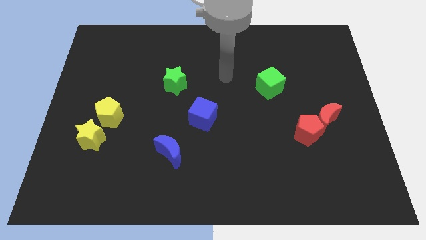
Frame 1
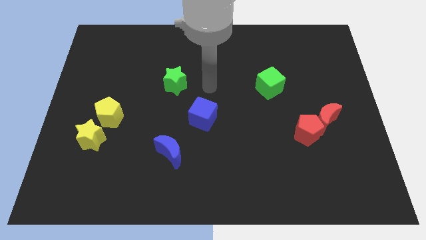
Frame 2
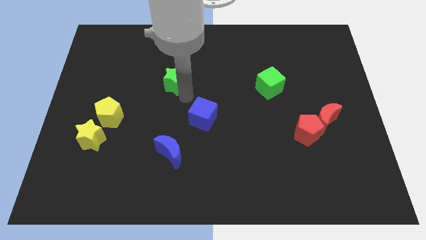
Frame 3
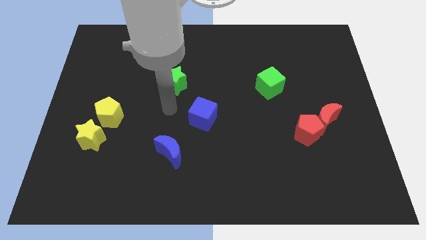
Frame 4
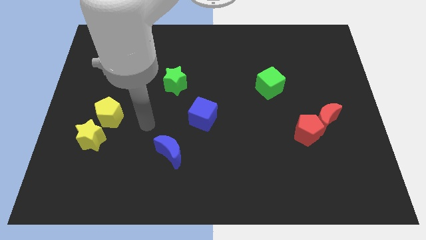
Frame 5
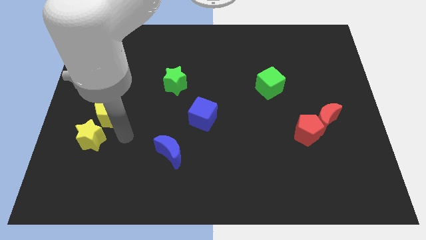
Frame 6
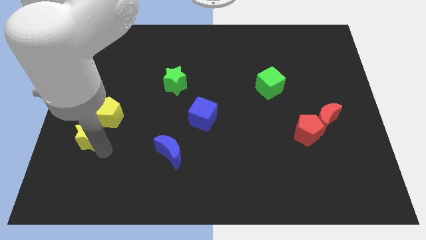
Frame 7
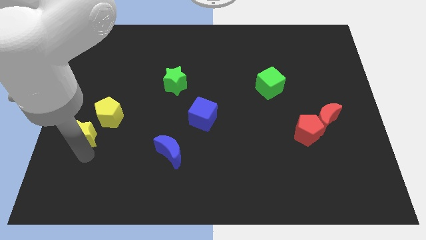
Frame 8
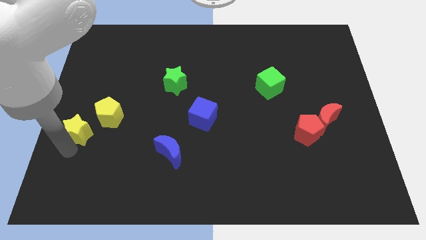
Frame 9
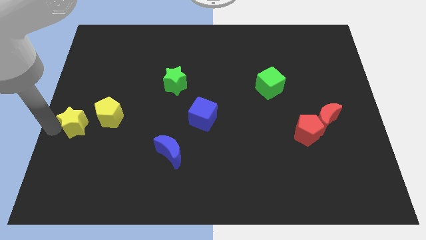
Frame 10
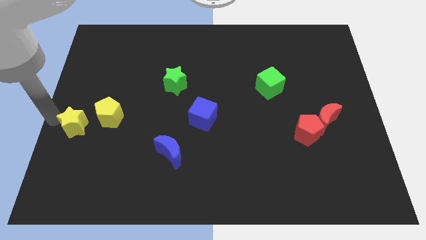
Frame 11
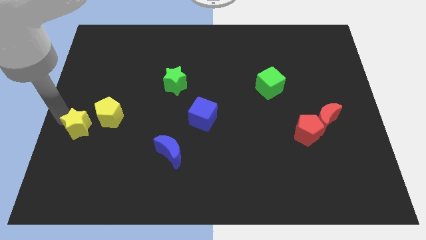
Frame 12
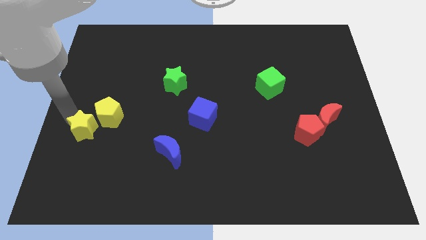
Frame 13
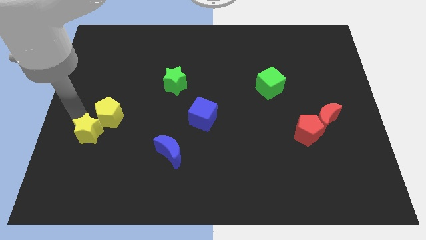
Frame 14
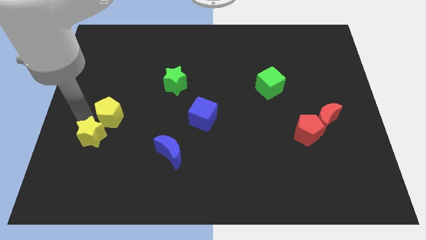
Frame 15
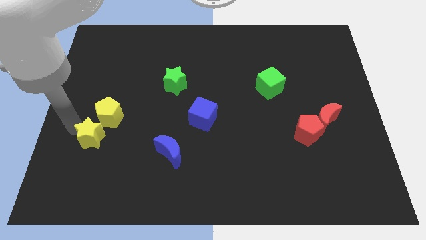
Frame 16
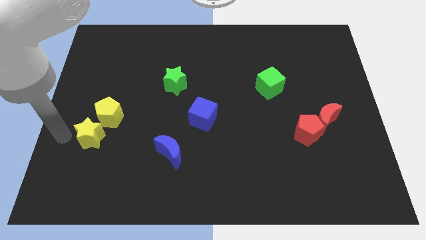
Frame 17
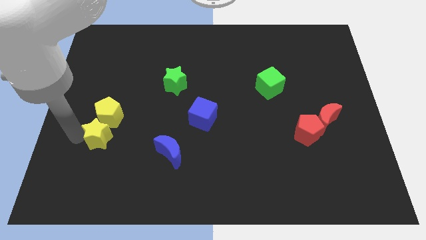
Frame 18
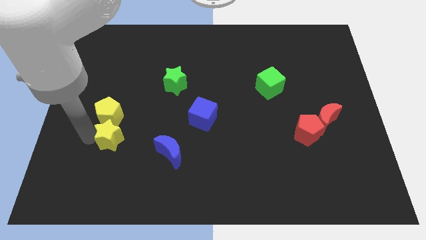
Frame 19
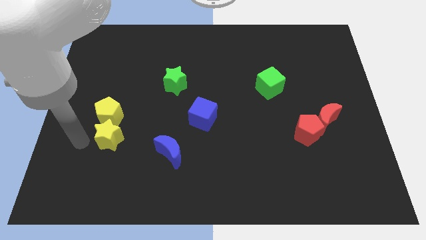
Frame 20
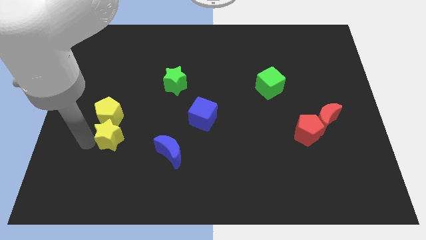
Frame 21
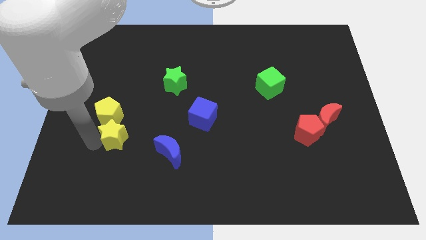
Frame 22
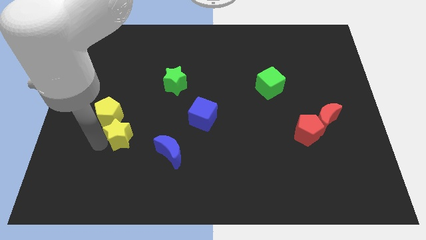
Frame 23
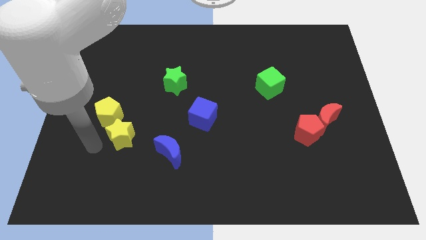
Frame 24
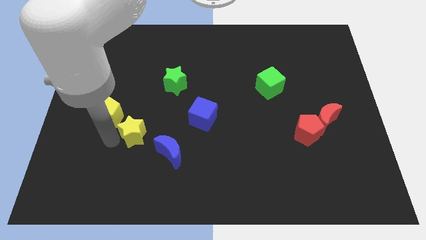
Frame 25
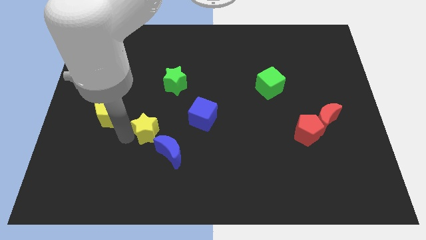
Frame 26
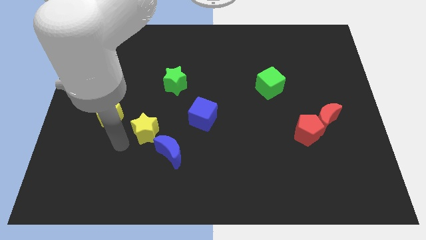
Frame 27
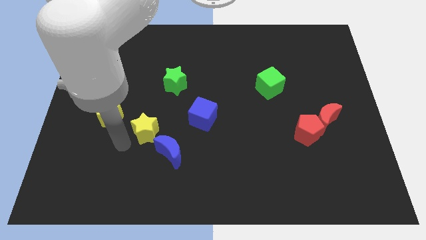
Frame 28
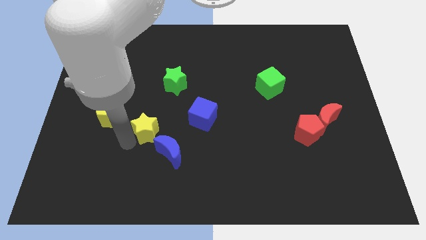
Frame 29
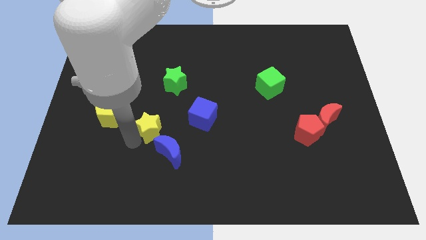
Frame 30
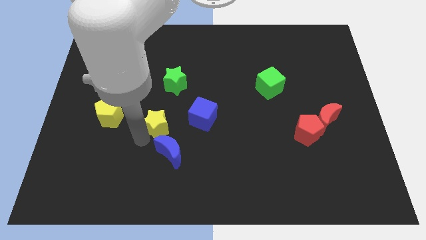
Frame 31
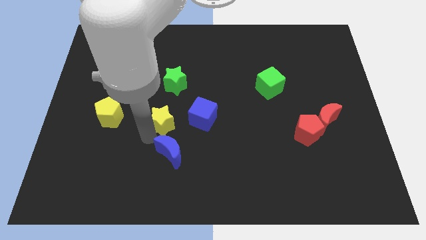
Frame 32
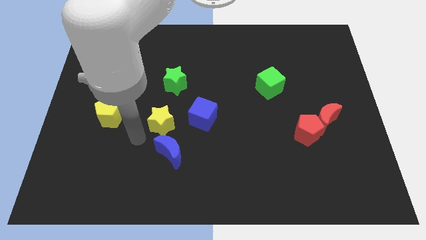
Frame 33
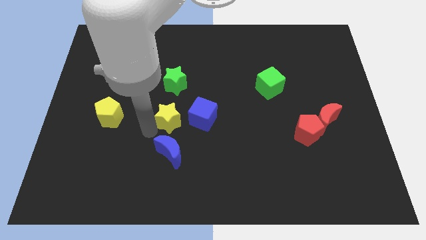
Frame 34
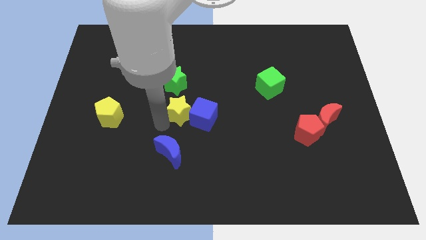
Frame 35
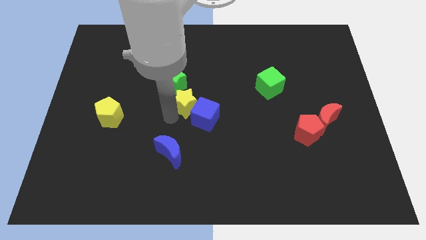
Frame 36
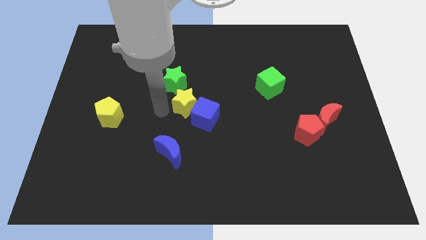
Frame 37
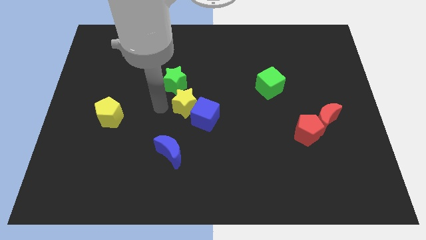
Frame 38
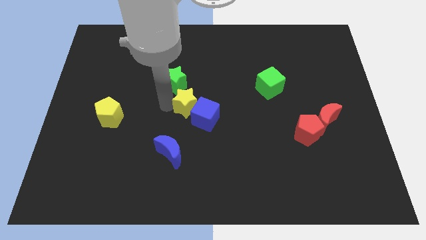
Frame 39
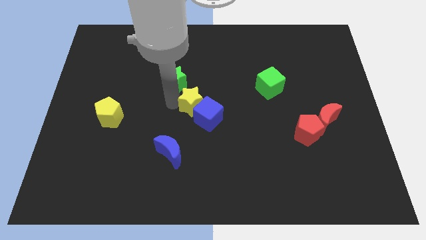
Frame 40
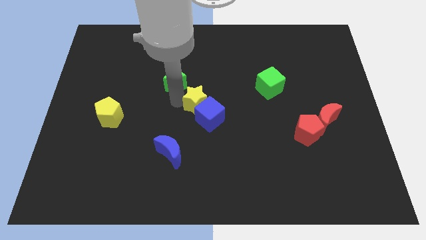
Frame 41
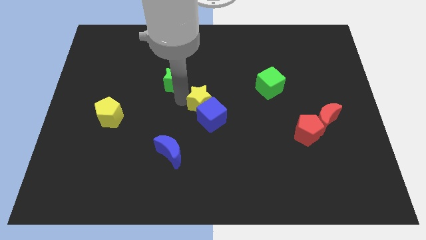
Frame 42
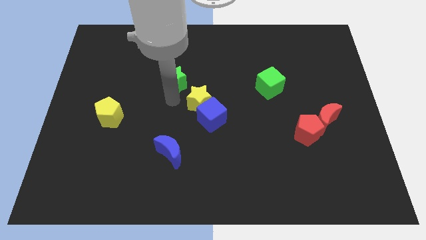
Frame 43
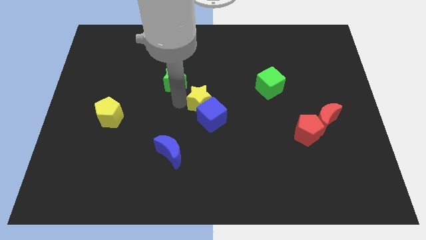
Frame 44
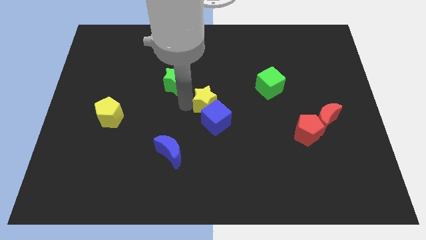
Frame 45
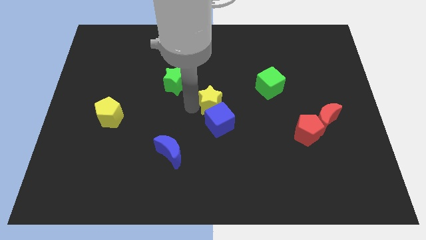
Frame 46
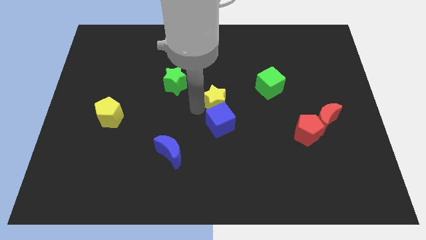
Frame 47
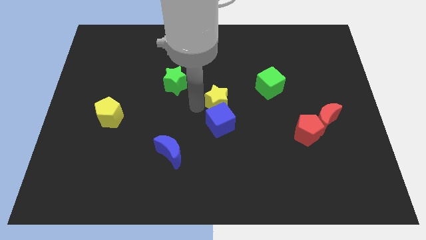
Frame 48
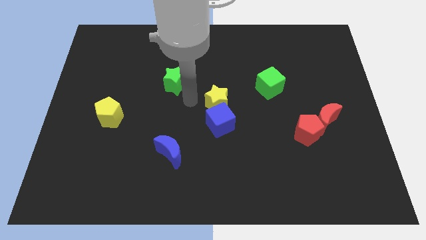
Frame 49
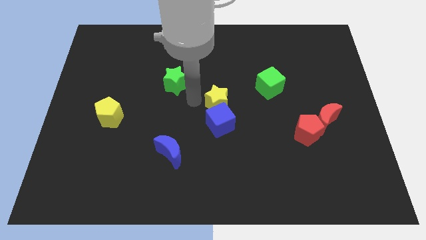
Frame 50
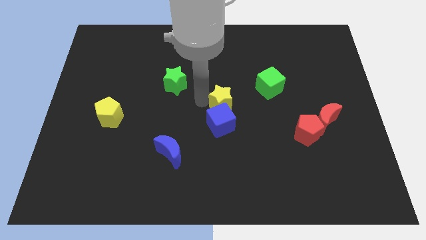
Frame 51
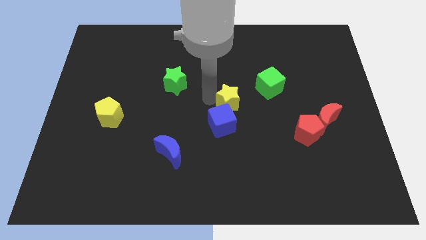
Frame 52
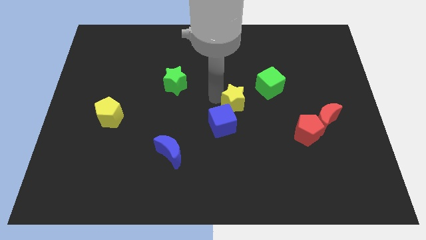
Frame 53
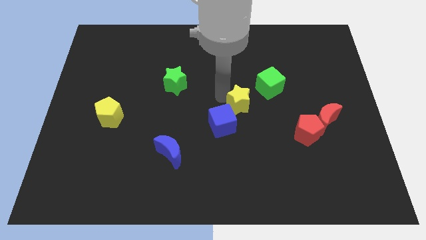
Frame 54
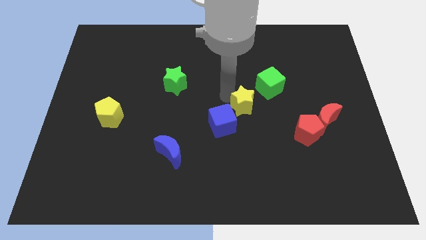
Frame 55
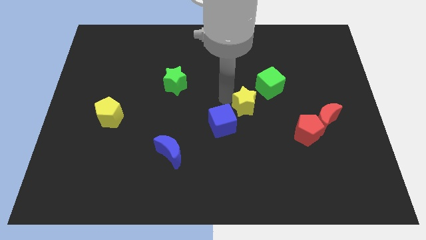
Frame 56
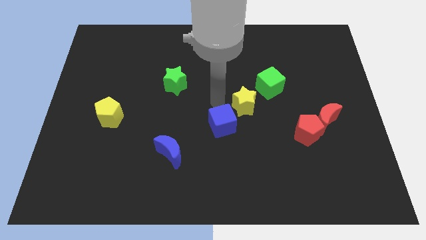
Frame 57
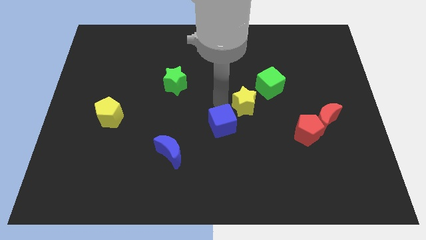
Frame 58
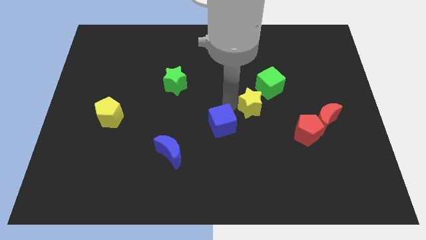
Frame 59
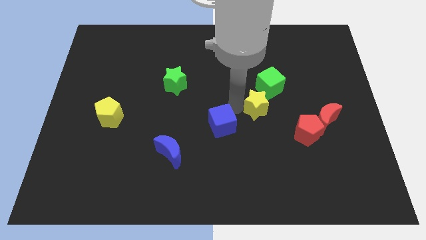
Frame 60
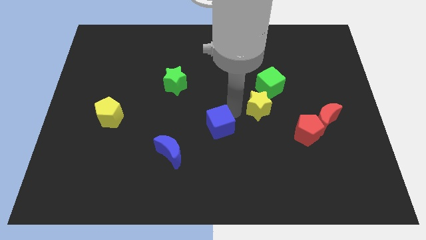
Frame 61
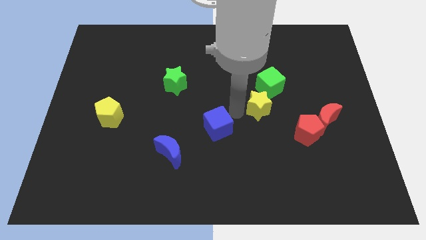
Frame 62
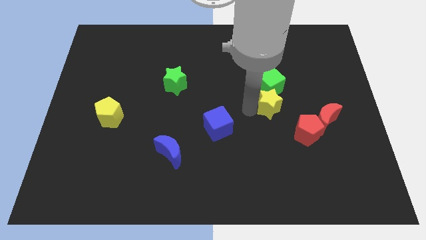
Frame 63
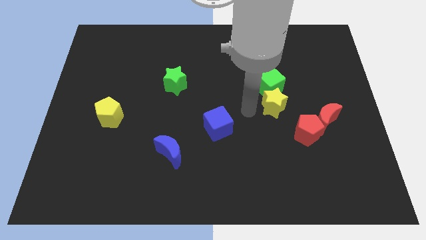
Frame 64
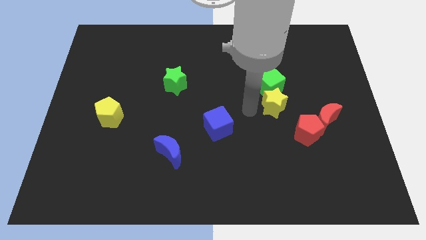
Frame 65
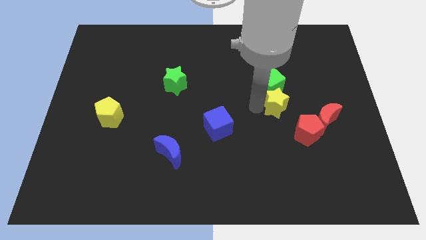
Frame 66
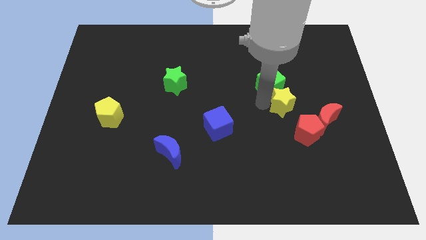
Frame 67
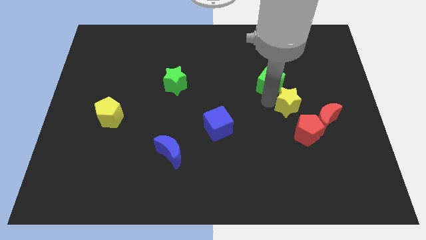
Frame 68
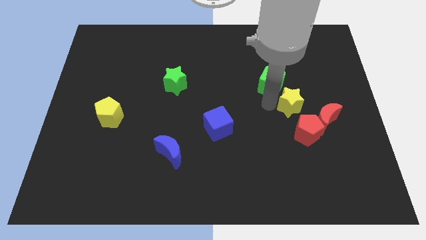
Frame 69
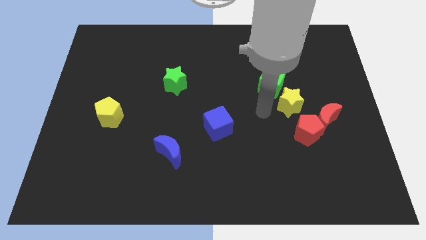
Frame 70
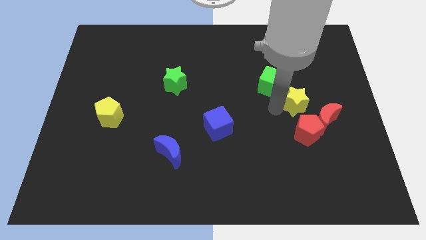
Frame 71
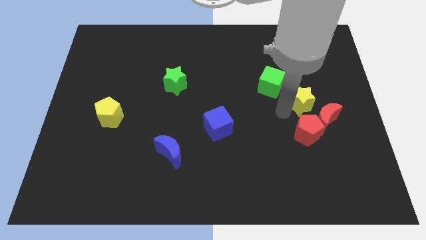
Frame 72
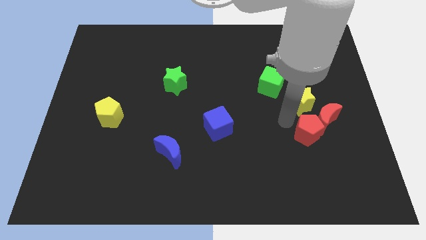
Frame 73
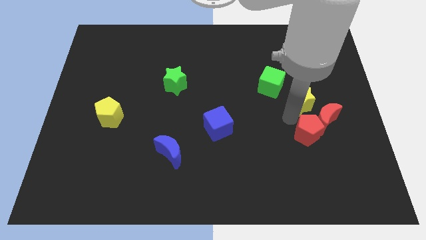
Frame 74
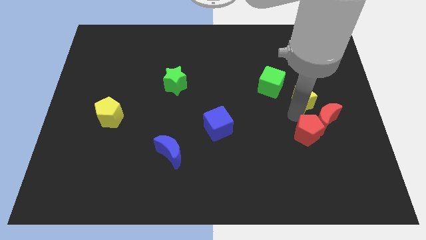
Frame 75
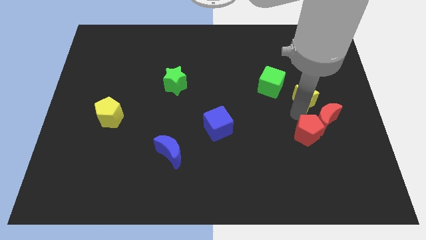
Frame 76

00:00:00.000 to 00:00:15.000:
slide the yellow star to the right side of the green cube
